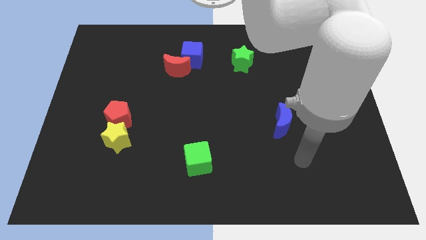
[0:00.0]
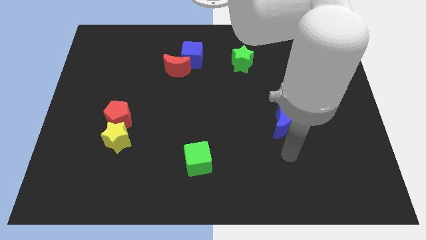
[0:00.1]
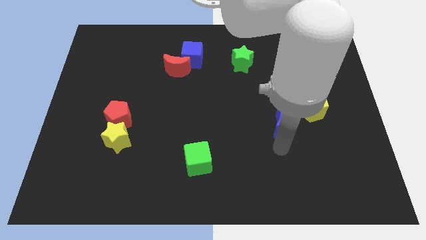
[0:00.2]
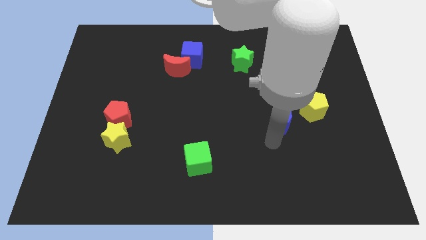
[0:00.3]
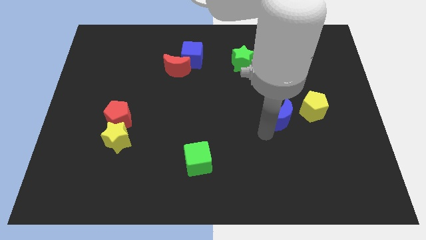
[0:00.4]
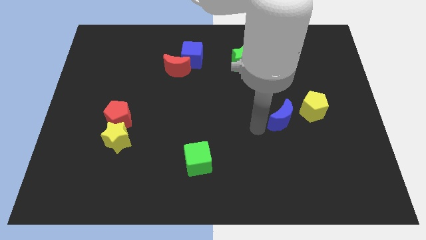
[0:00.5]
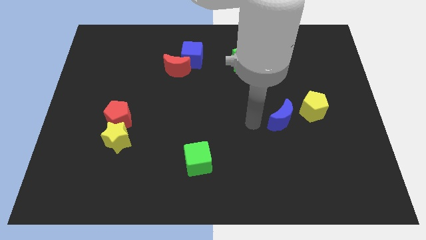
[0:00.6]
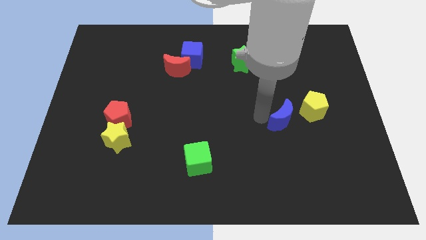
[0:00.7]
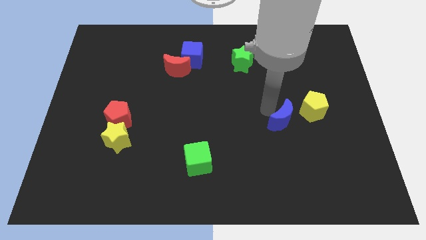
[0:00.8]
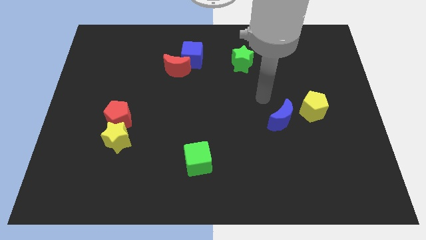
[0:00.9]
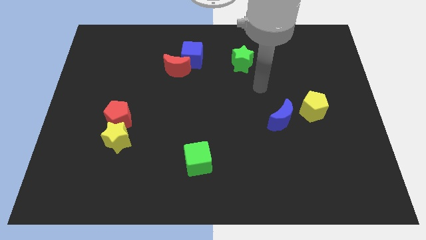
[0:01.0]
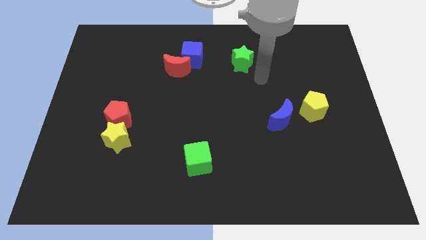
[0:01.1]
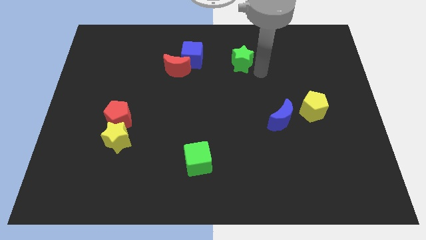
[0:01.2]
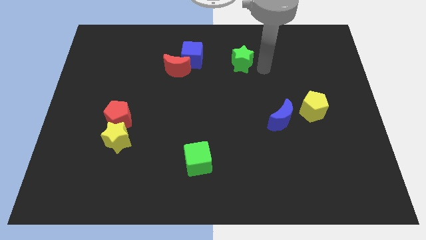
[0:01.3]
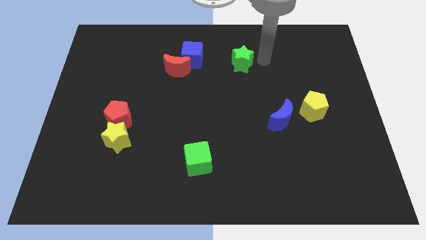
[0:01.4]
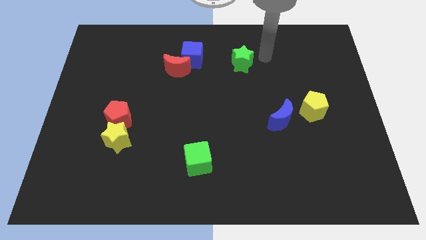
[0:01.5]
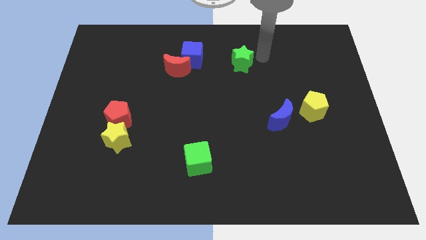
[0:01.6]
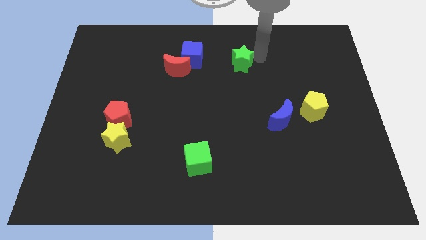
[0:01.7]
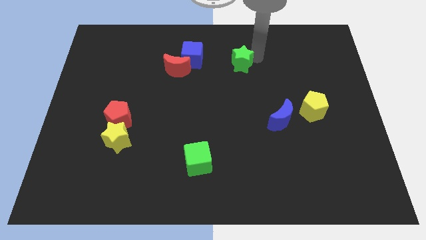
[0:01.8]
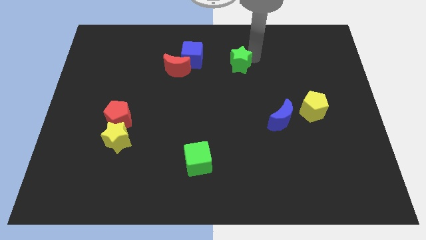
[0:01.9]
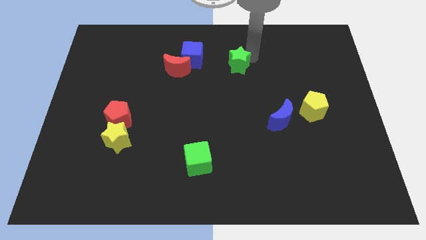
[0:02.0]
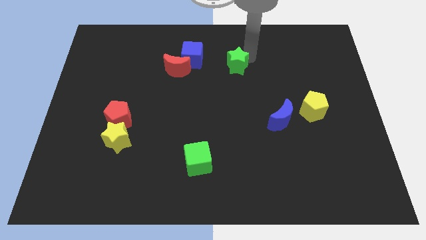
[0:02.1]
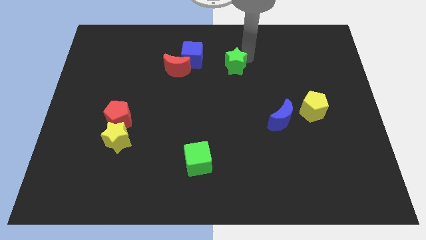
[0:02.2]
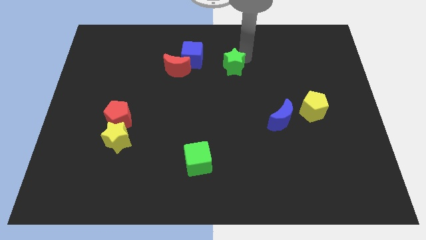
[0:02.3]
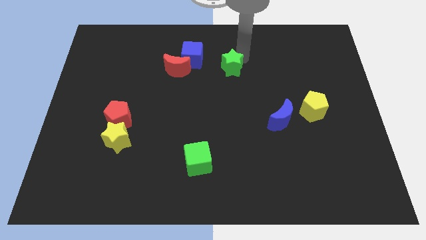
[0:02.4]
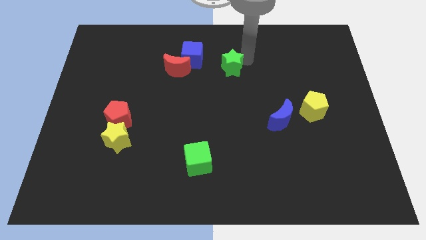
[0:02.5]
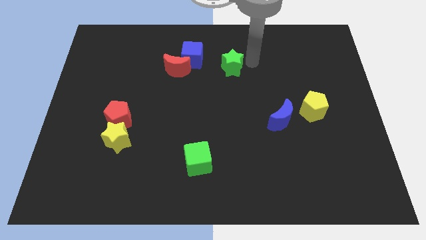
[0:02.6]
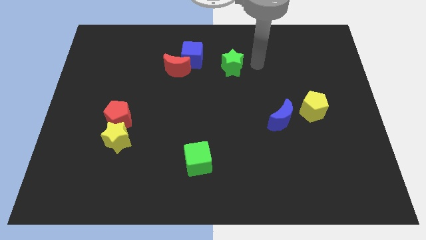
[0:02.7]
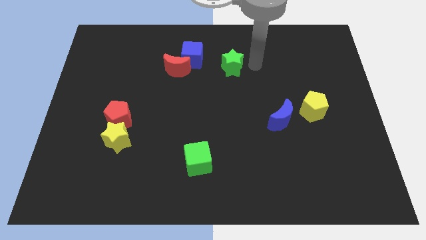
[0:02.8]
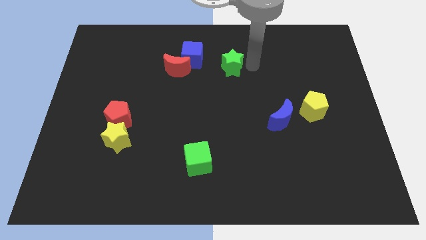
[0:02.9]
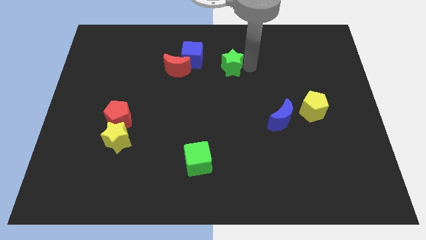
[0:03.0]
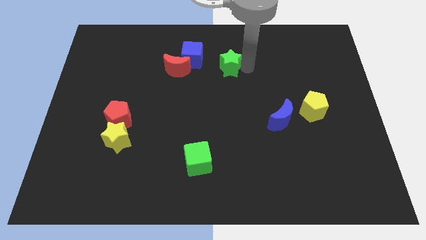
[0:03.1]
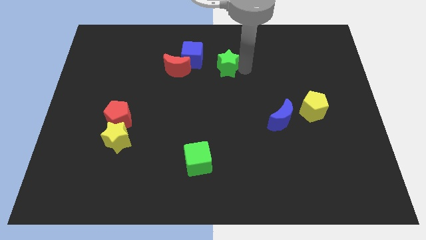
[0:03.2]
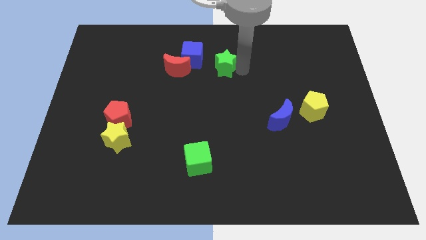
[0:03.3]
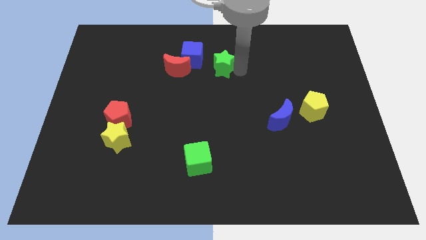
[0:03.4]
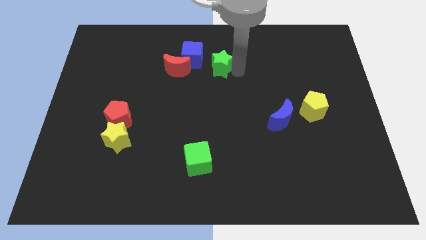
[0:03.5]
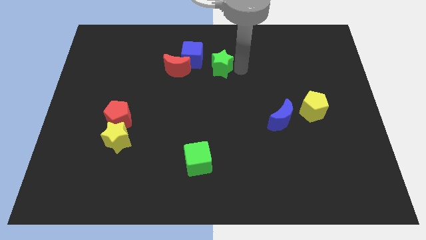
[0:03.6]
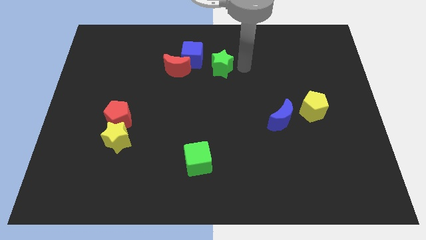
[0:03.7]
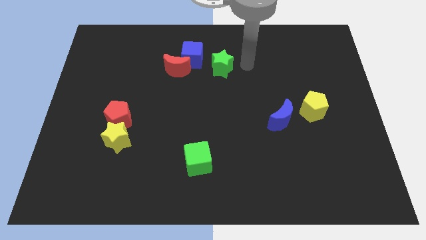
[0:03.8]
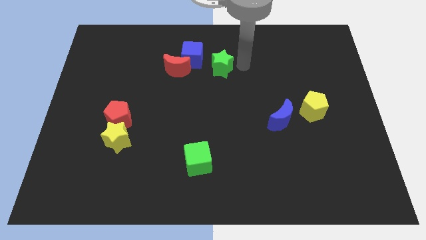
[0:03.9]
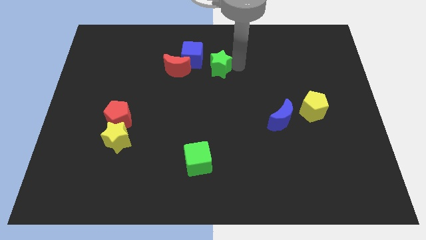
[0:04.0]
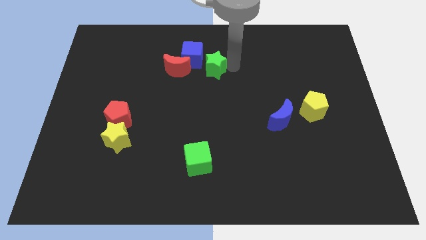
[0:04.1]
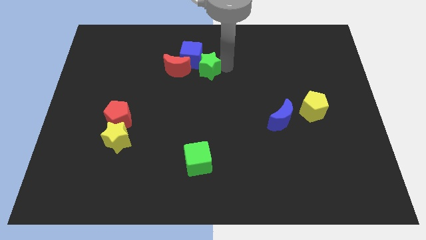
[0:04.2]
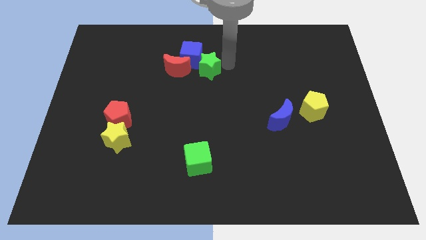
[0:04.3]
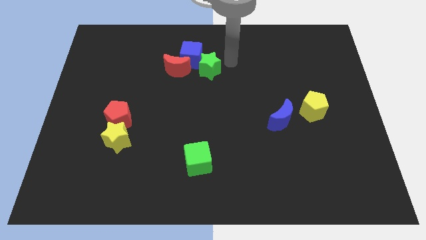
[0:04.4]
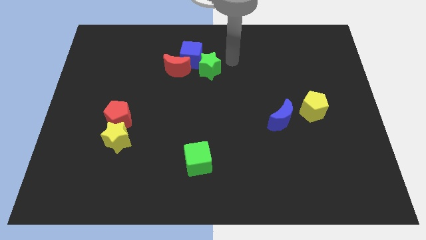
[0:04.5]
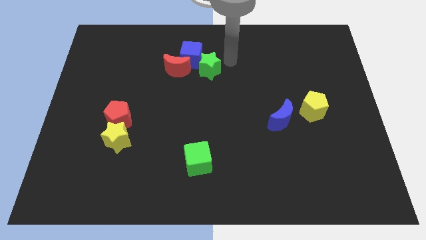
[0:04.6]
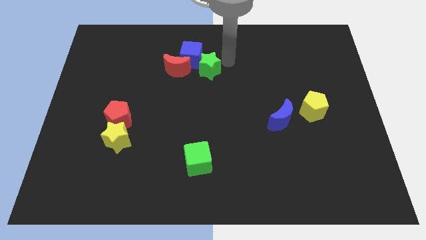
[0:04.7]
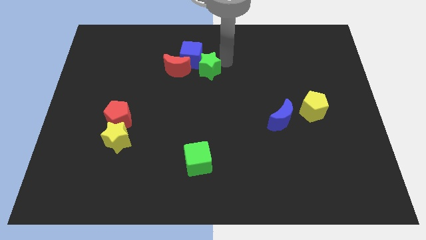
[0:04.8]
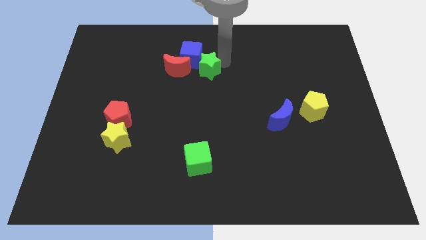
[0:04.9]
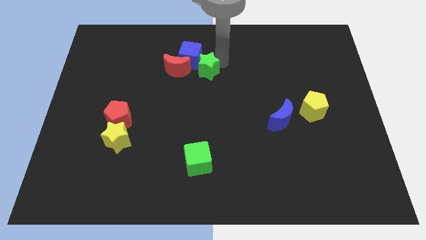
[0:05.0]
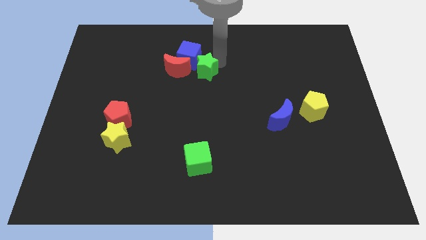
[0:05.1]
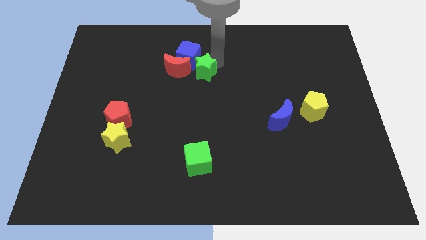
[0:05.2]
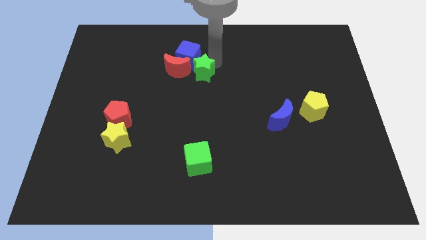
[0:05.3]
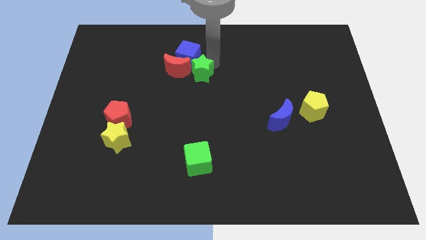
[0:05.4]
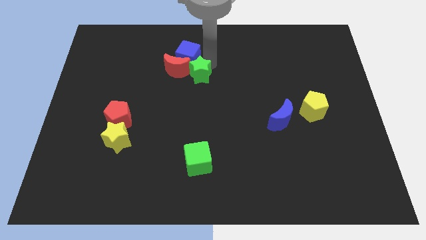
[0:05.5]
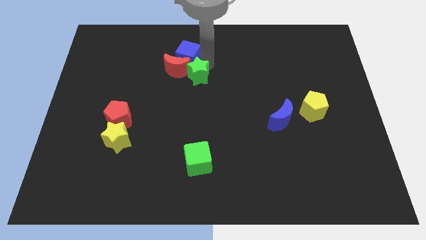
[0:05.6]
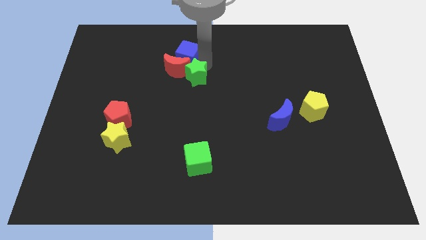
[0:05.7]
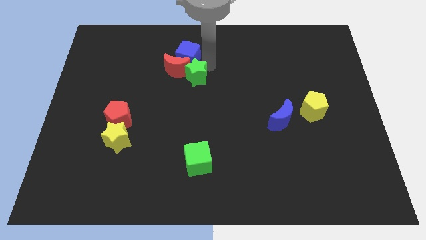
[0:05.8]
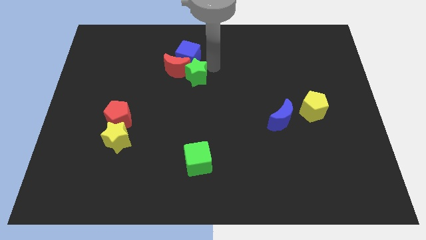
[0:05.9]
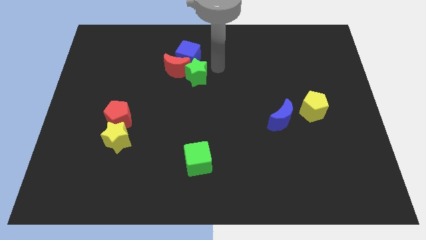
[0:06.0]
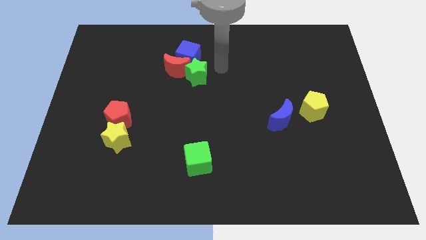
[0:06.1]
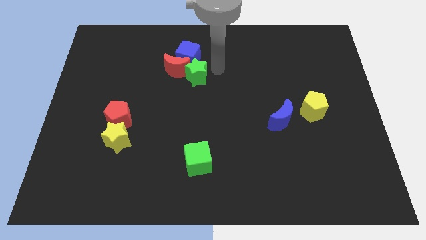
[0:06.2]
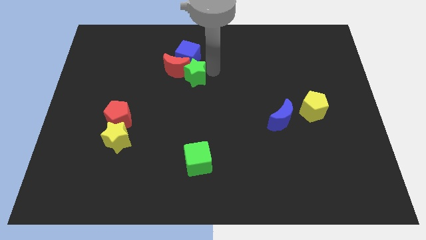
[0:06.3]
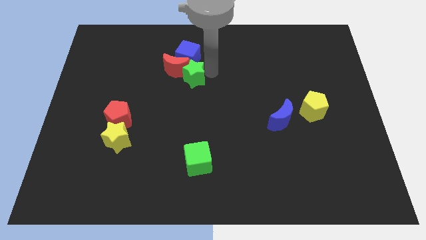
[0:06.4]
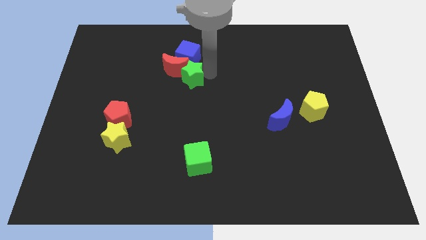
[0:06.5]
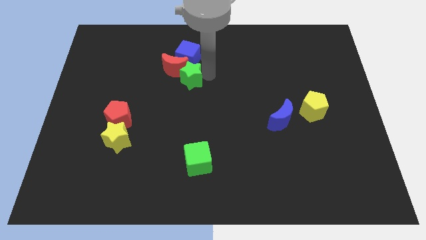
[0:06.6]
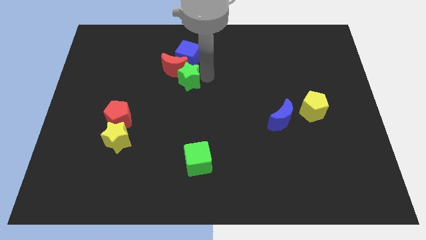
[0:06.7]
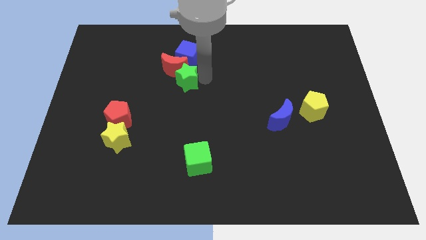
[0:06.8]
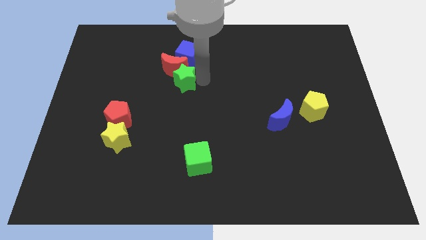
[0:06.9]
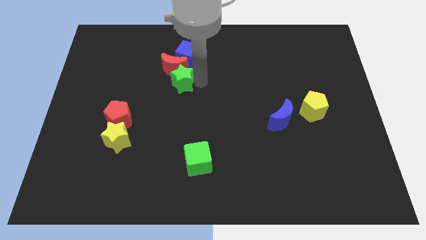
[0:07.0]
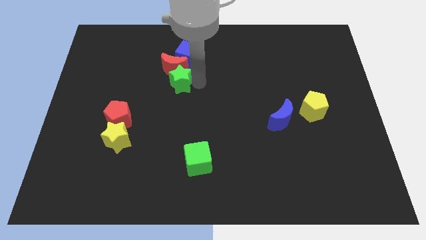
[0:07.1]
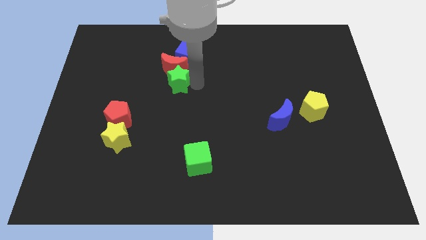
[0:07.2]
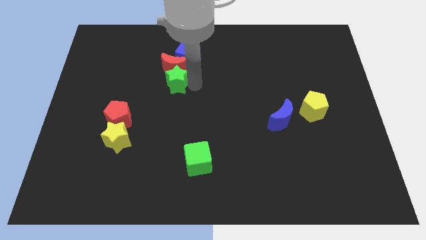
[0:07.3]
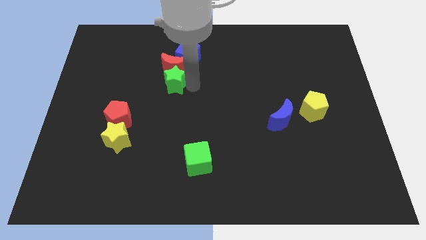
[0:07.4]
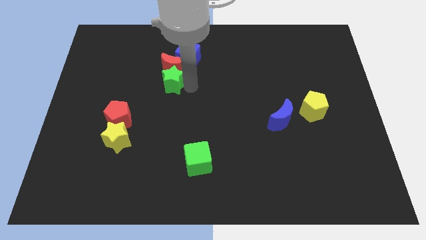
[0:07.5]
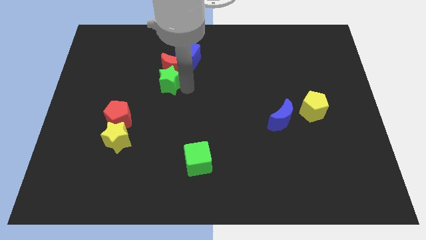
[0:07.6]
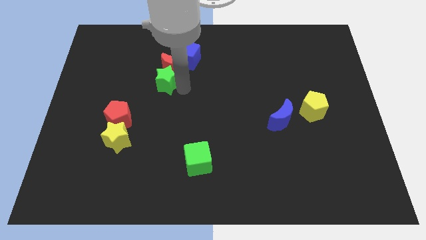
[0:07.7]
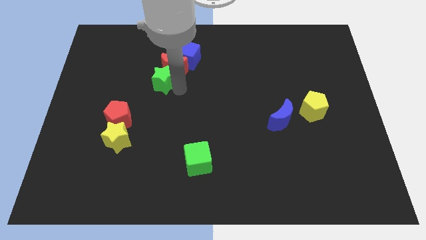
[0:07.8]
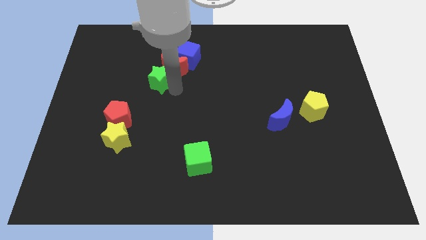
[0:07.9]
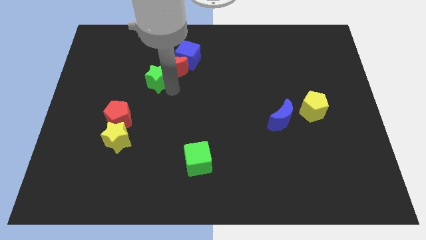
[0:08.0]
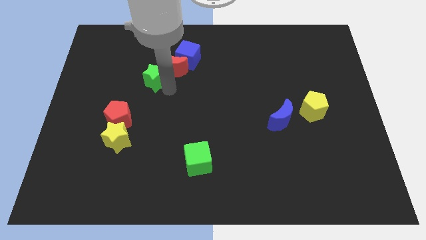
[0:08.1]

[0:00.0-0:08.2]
slide the green star to the left
